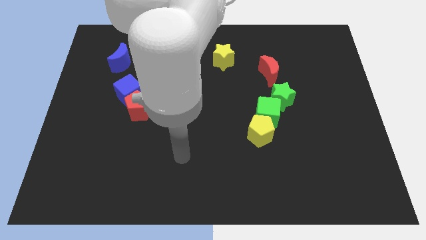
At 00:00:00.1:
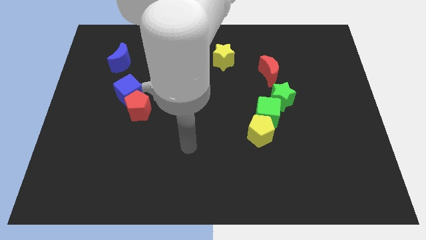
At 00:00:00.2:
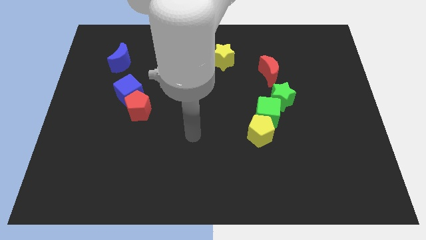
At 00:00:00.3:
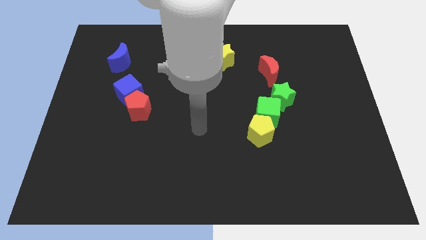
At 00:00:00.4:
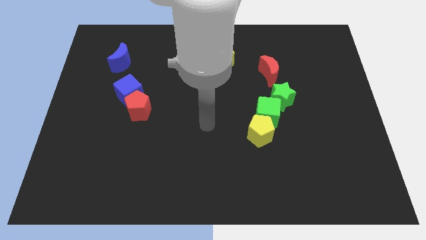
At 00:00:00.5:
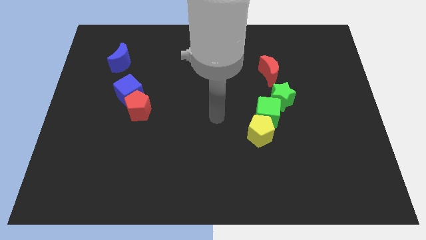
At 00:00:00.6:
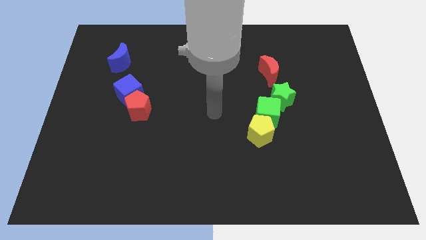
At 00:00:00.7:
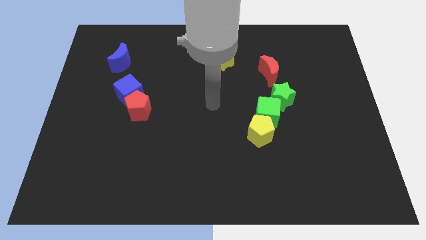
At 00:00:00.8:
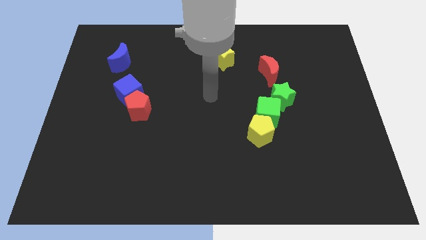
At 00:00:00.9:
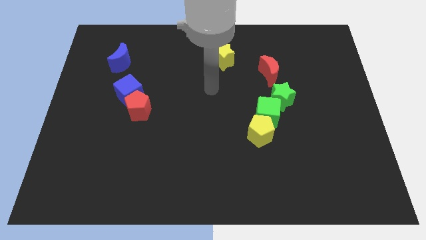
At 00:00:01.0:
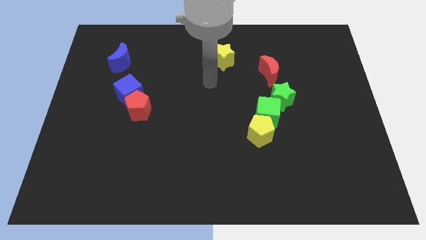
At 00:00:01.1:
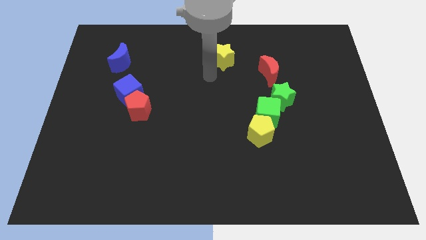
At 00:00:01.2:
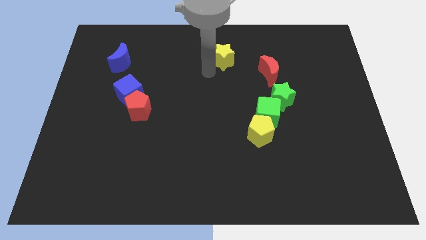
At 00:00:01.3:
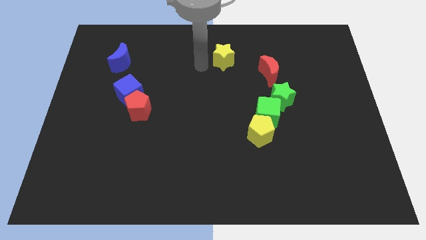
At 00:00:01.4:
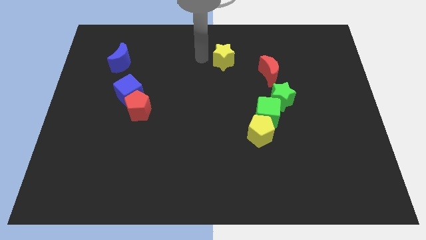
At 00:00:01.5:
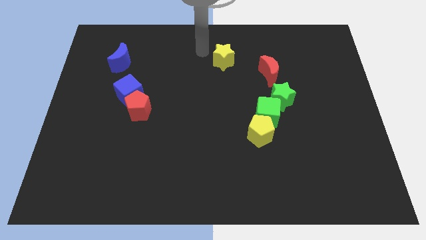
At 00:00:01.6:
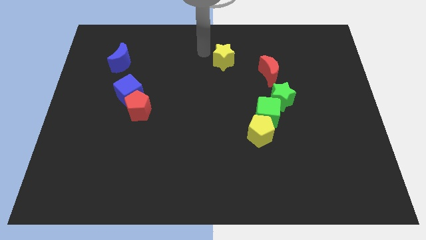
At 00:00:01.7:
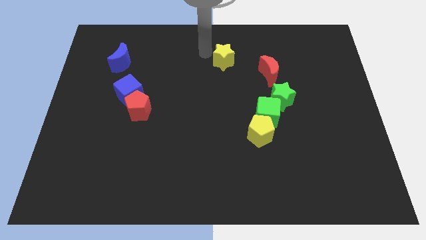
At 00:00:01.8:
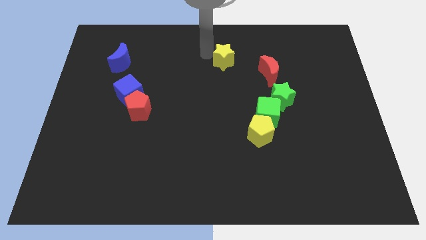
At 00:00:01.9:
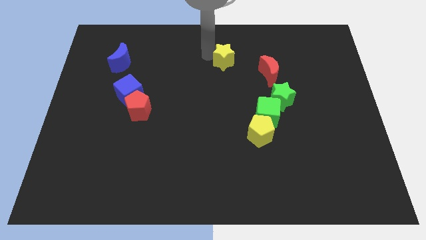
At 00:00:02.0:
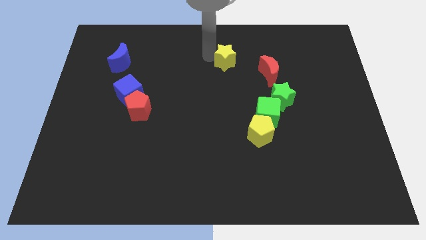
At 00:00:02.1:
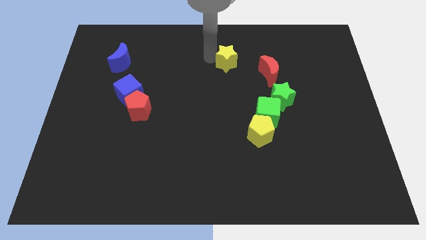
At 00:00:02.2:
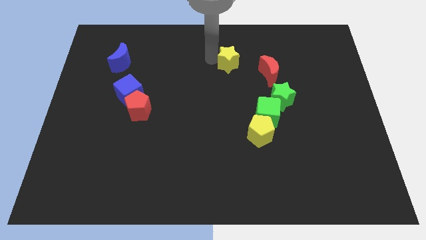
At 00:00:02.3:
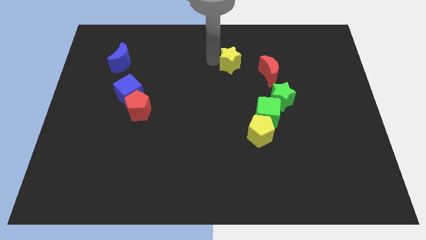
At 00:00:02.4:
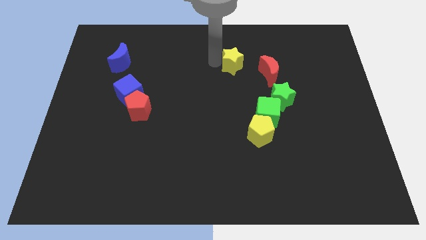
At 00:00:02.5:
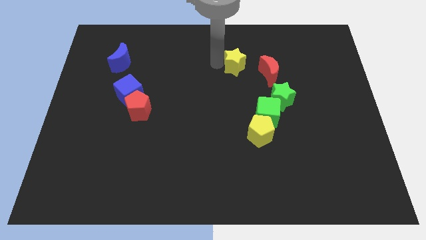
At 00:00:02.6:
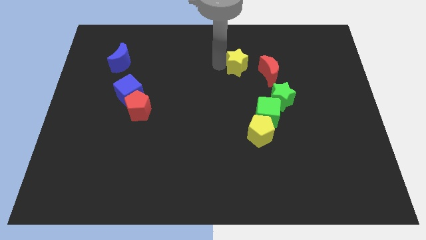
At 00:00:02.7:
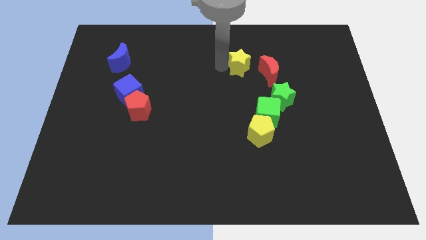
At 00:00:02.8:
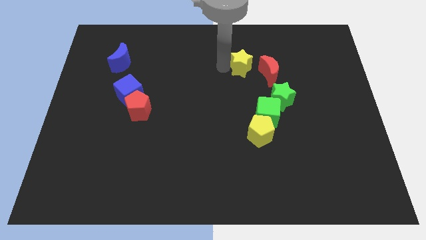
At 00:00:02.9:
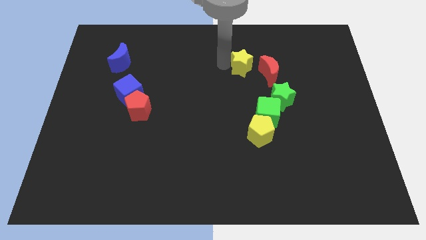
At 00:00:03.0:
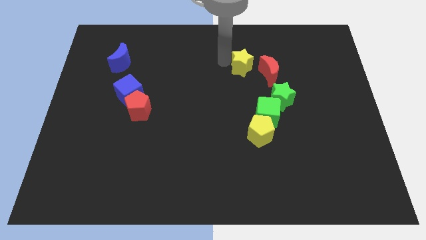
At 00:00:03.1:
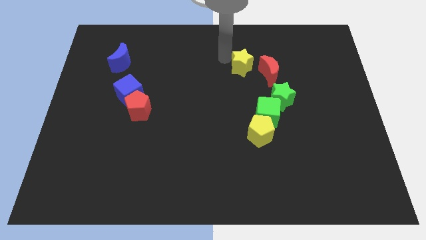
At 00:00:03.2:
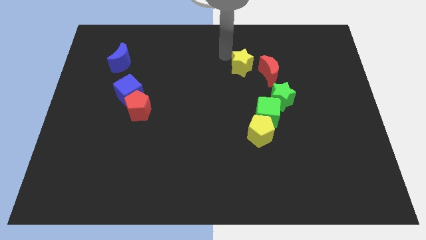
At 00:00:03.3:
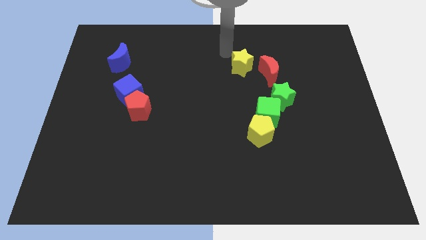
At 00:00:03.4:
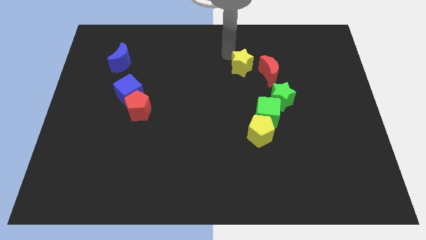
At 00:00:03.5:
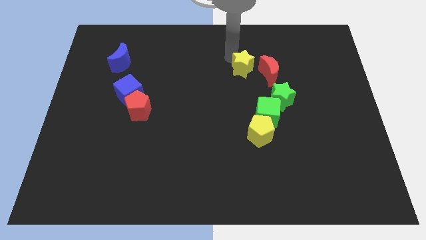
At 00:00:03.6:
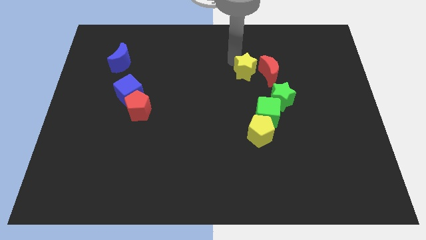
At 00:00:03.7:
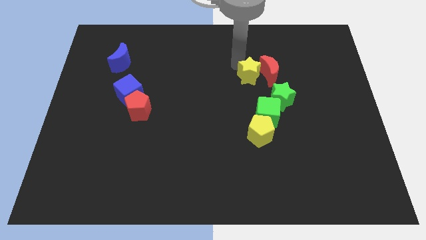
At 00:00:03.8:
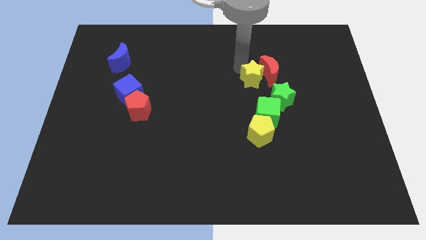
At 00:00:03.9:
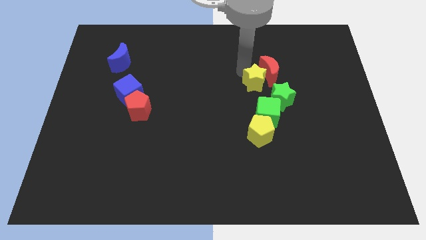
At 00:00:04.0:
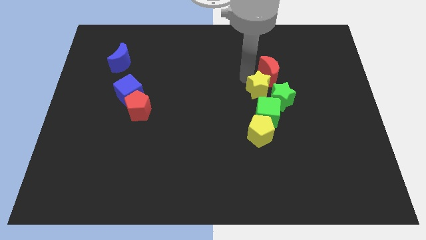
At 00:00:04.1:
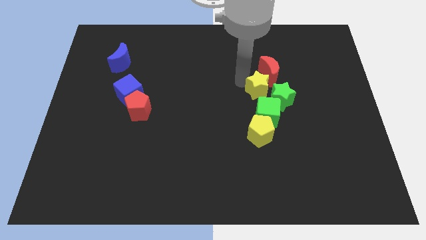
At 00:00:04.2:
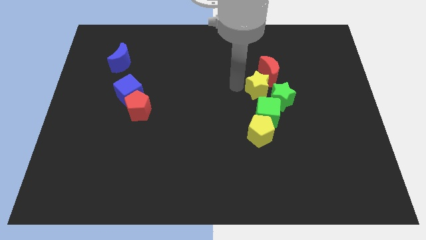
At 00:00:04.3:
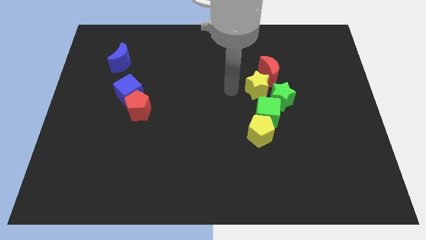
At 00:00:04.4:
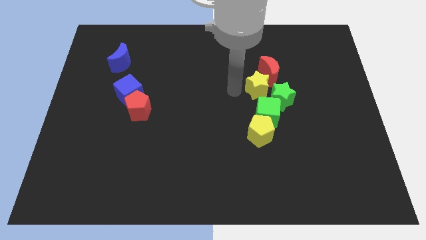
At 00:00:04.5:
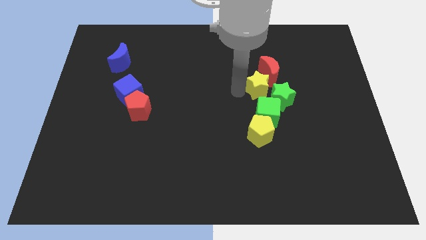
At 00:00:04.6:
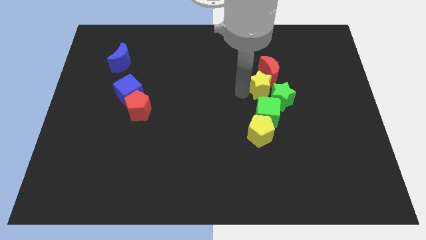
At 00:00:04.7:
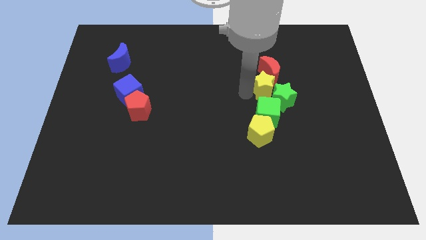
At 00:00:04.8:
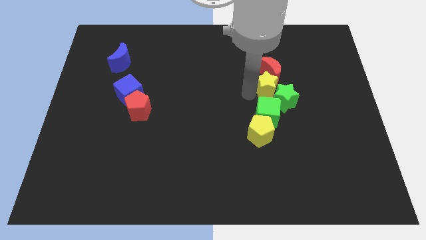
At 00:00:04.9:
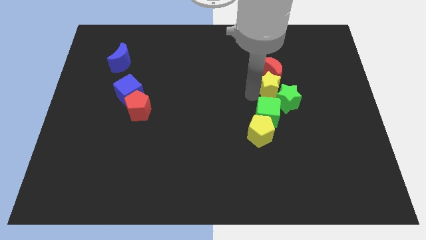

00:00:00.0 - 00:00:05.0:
slide the yellow star to the bottom right side of the red moon

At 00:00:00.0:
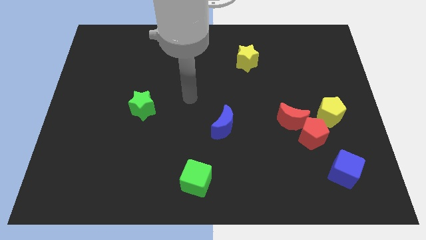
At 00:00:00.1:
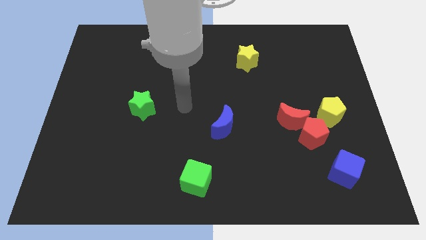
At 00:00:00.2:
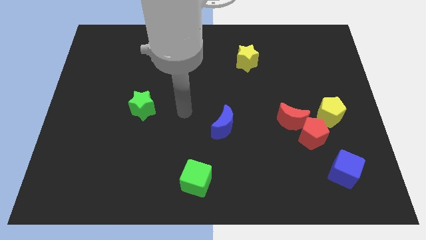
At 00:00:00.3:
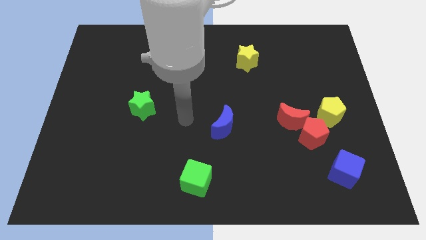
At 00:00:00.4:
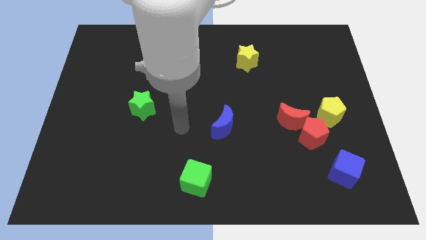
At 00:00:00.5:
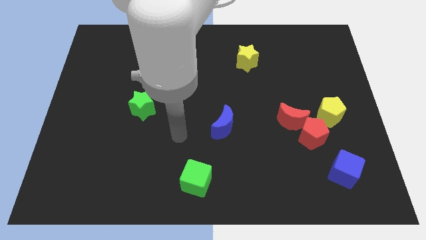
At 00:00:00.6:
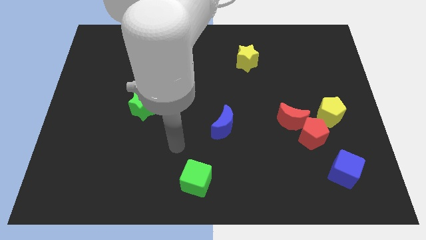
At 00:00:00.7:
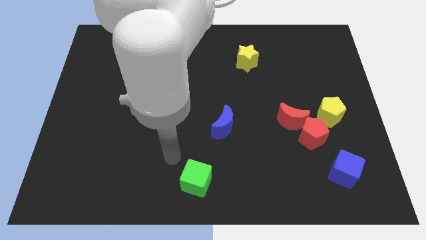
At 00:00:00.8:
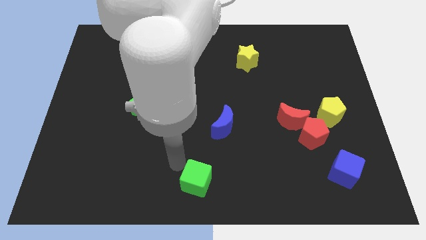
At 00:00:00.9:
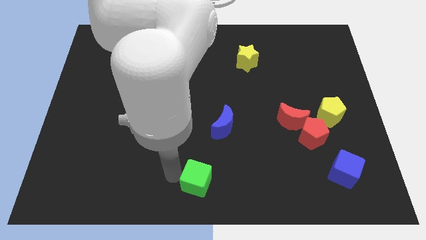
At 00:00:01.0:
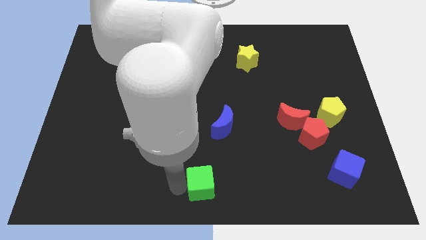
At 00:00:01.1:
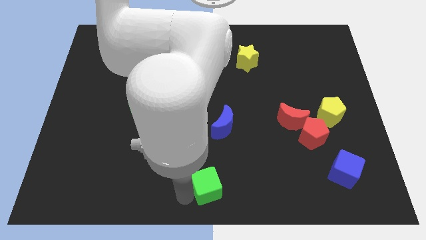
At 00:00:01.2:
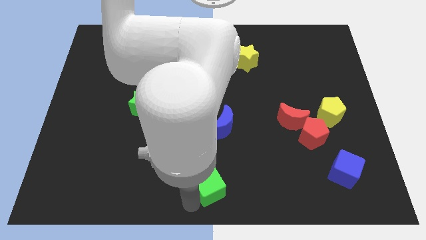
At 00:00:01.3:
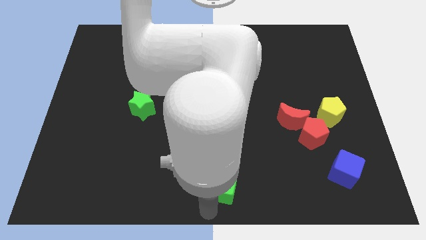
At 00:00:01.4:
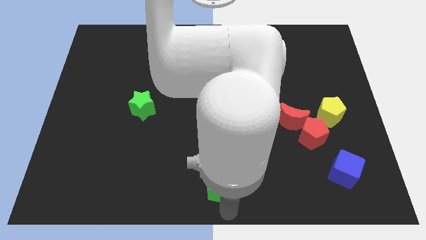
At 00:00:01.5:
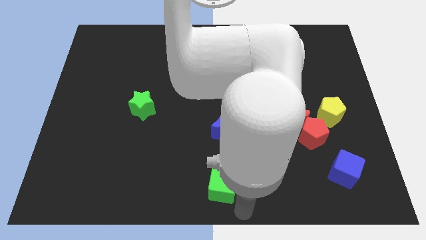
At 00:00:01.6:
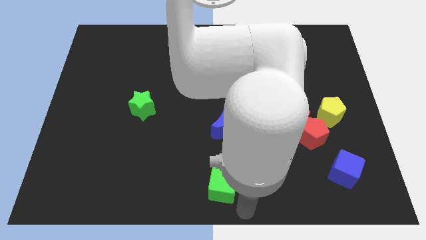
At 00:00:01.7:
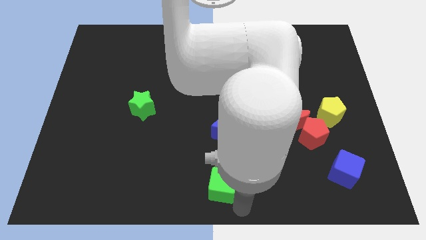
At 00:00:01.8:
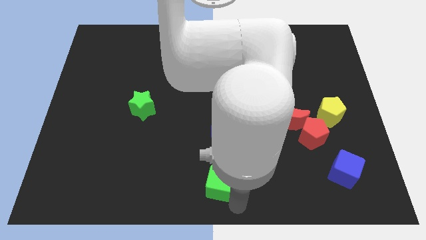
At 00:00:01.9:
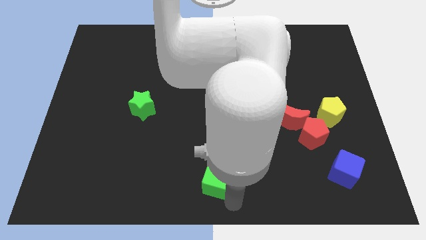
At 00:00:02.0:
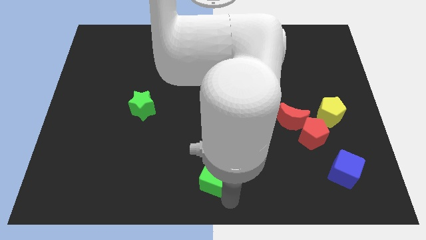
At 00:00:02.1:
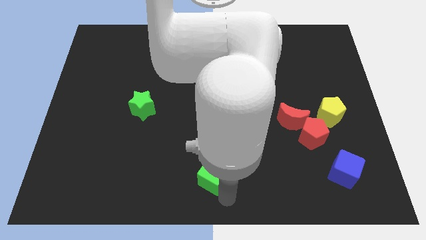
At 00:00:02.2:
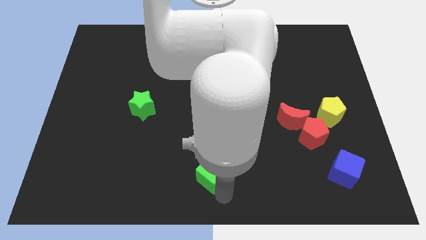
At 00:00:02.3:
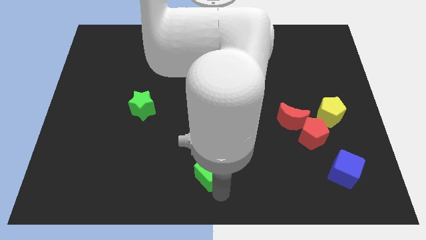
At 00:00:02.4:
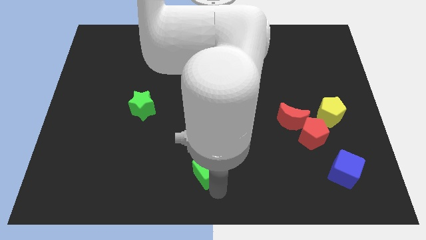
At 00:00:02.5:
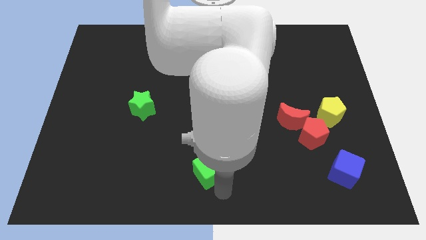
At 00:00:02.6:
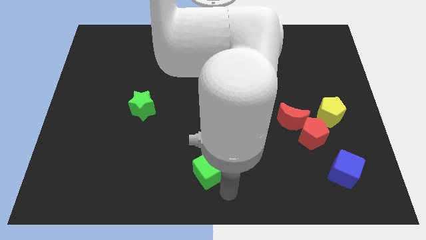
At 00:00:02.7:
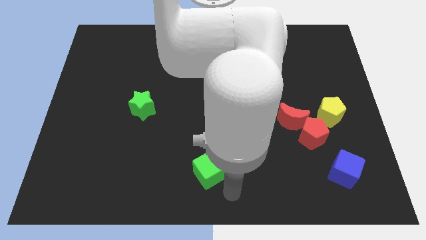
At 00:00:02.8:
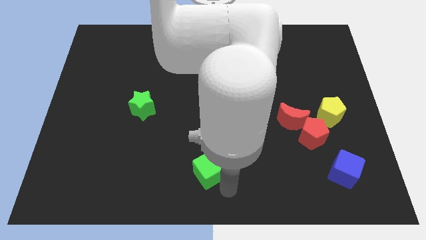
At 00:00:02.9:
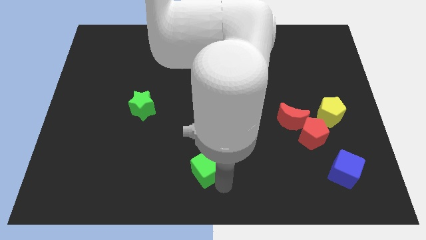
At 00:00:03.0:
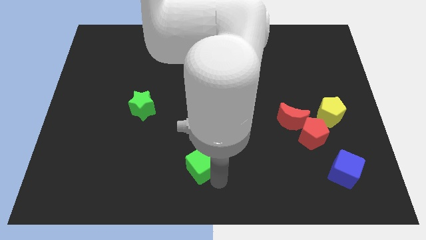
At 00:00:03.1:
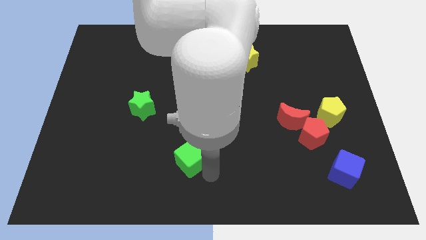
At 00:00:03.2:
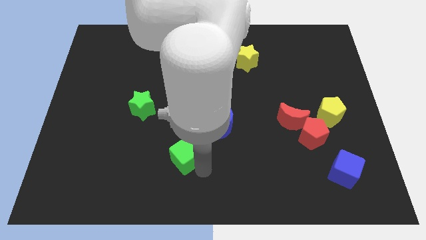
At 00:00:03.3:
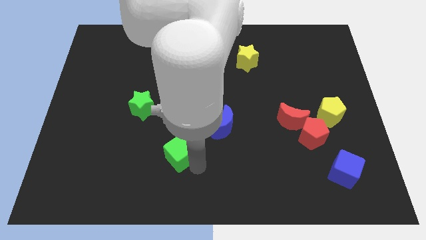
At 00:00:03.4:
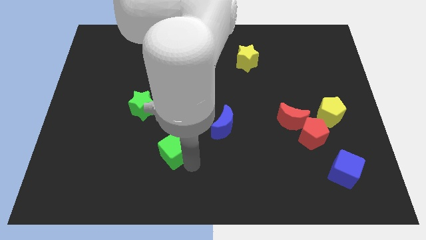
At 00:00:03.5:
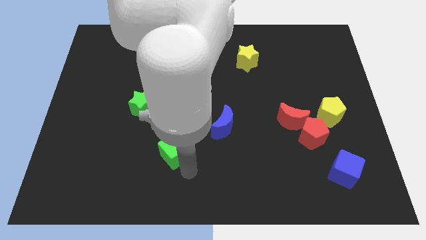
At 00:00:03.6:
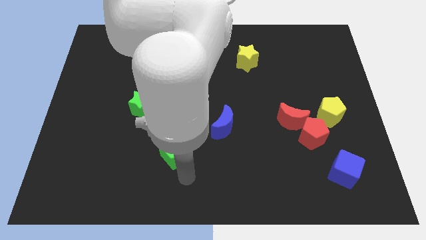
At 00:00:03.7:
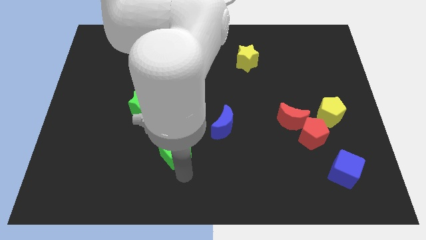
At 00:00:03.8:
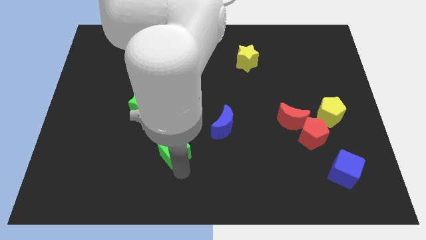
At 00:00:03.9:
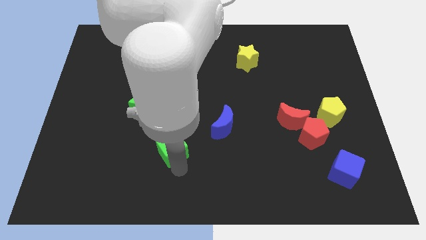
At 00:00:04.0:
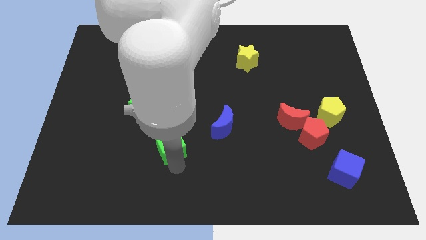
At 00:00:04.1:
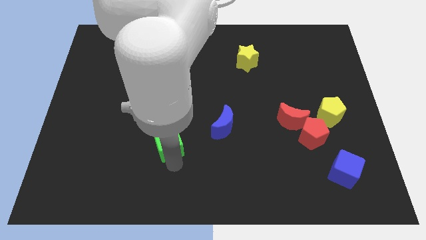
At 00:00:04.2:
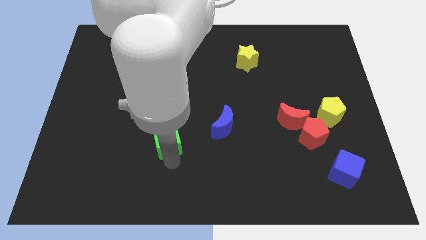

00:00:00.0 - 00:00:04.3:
push the green cube to the bottom right of the green star
